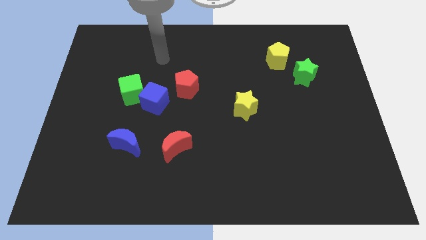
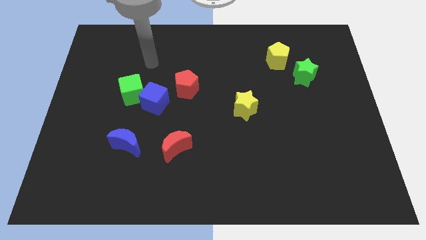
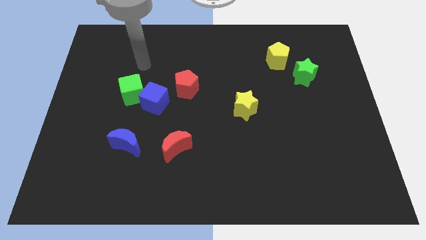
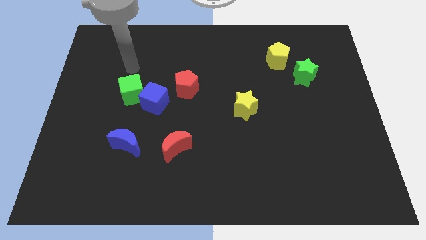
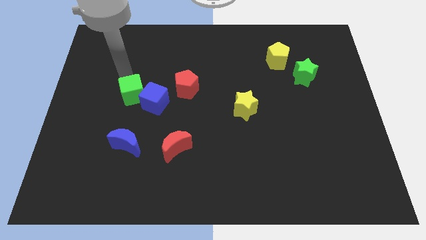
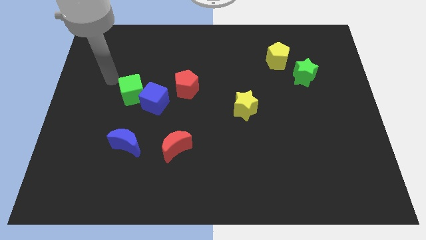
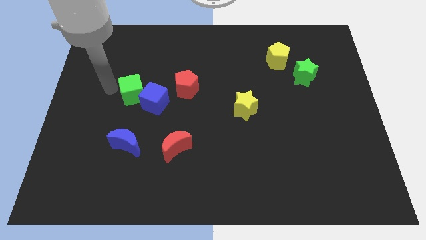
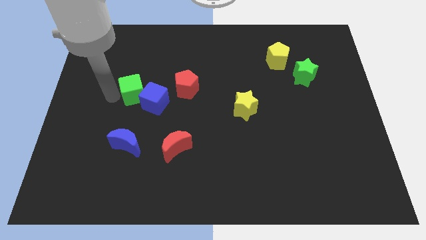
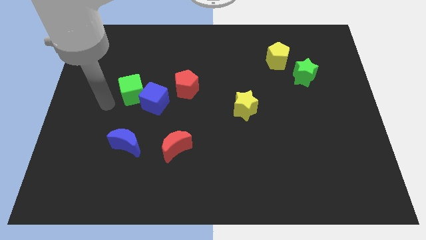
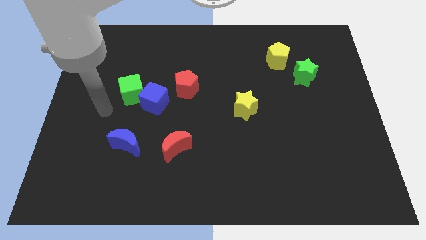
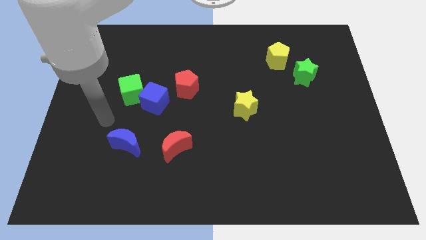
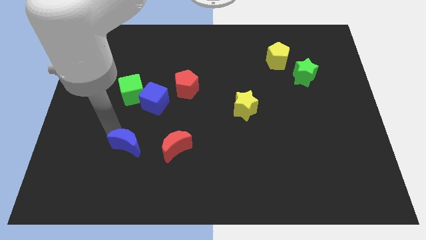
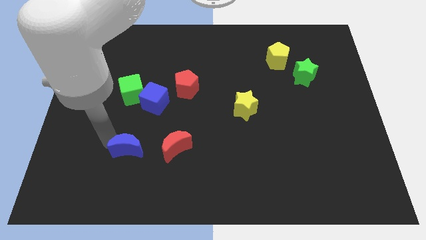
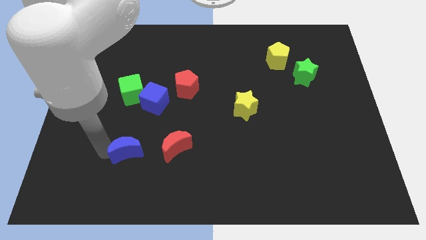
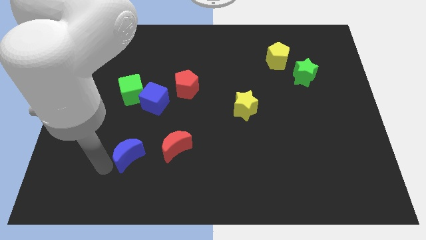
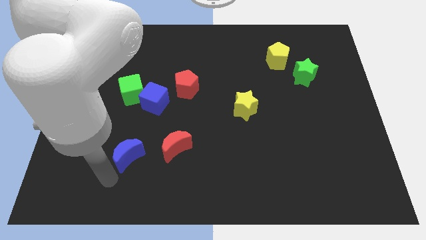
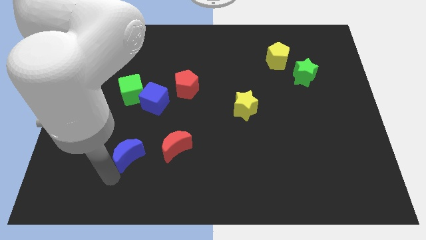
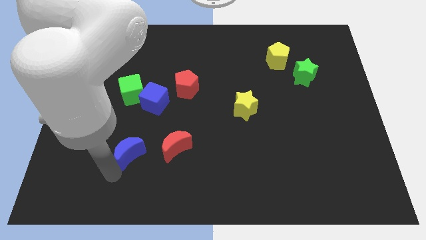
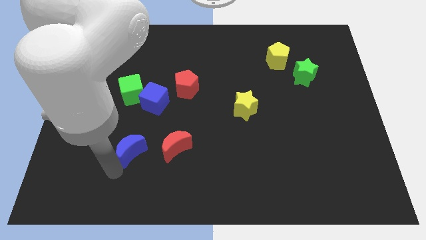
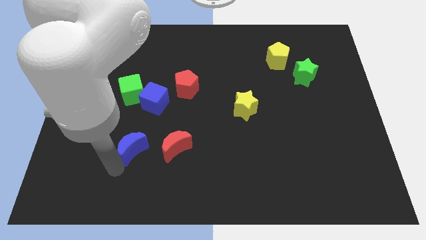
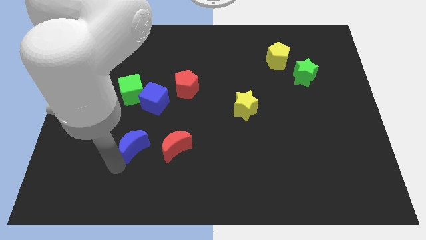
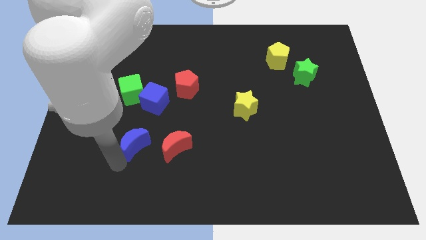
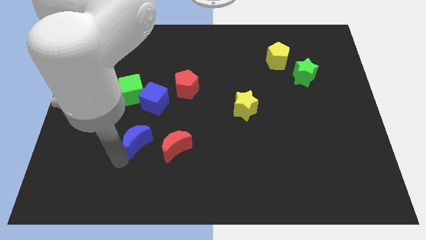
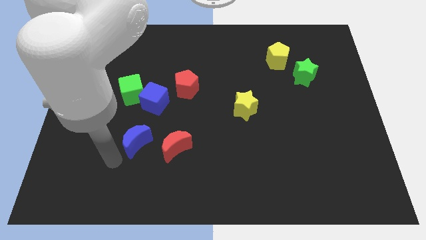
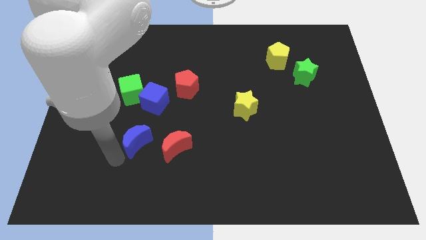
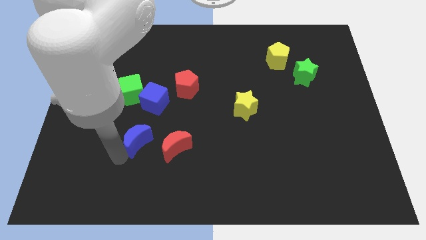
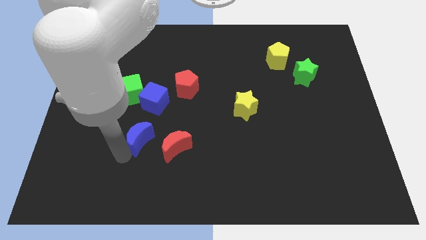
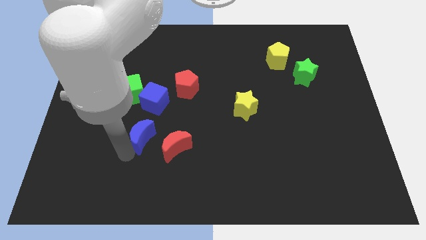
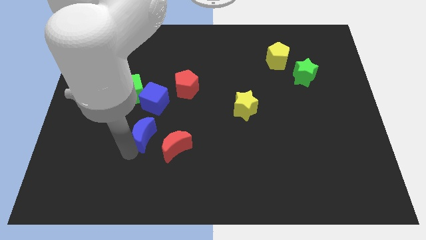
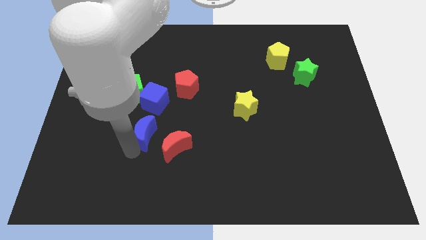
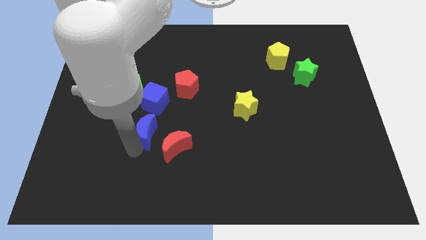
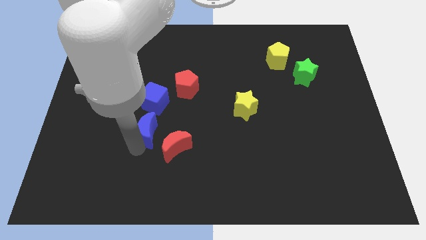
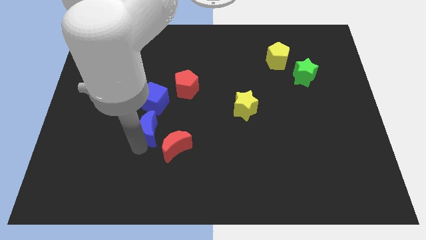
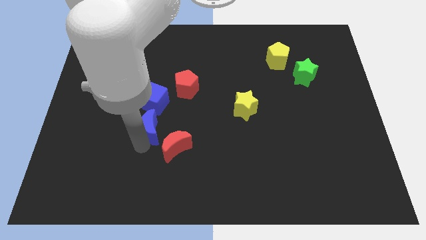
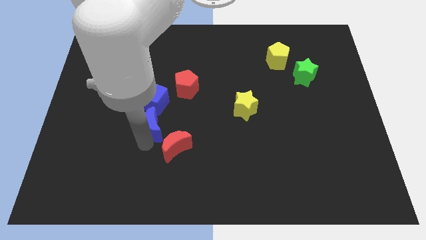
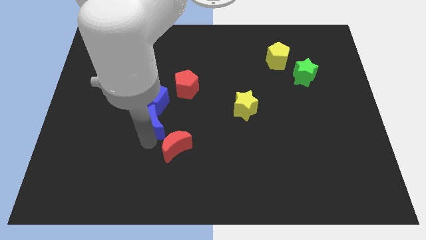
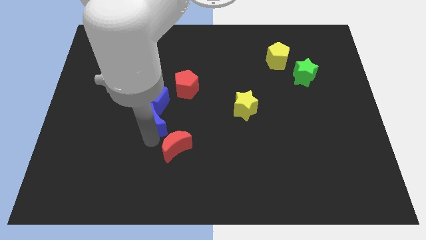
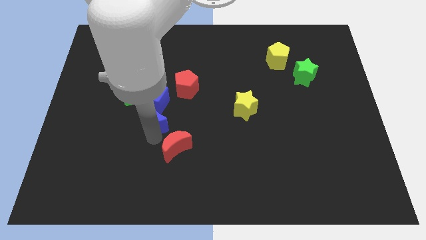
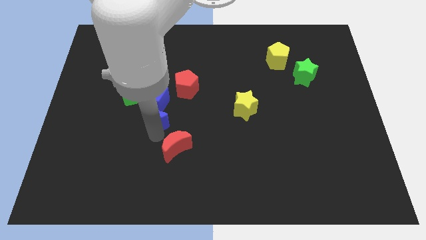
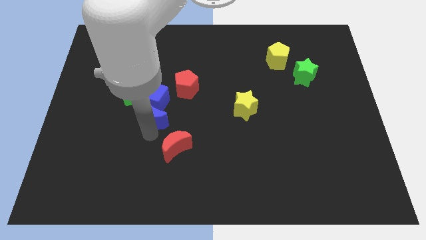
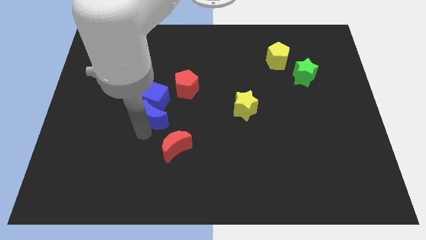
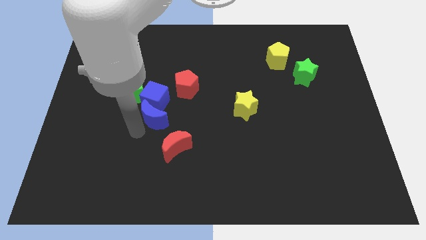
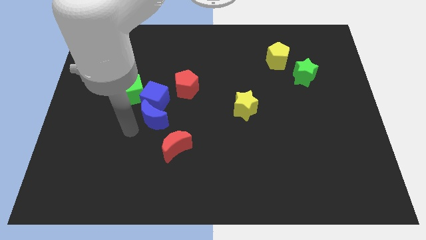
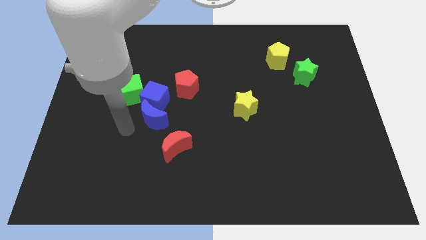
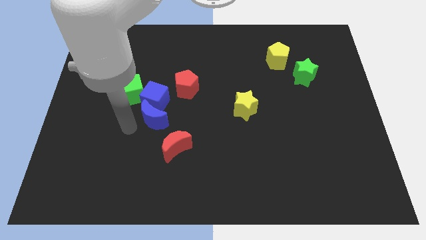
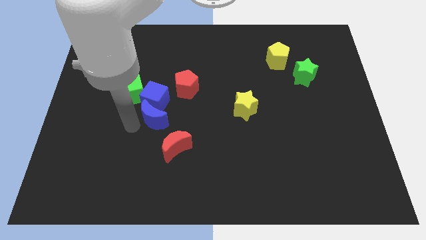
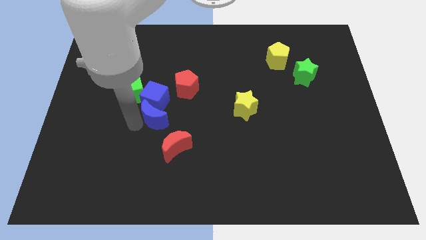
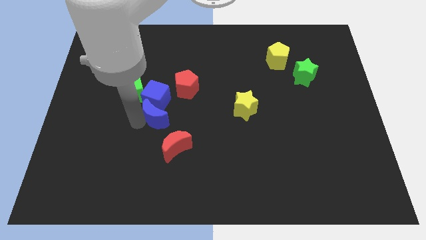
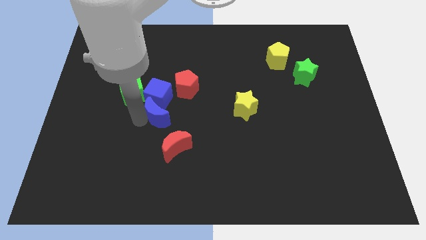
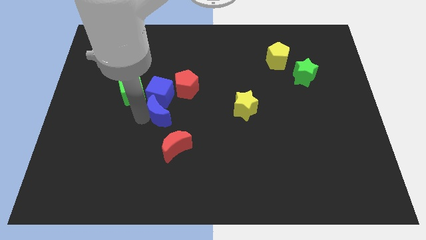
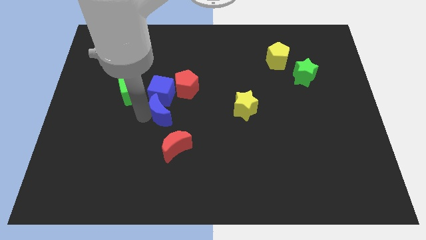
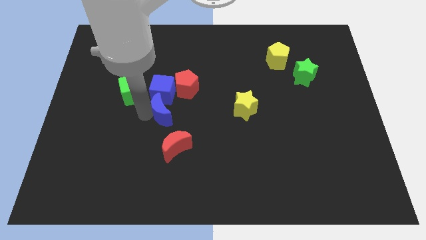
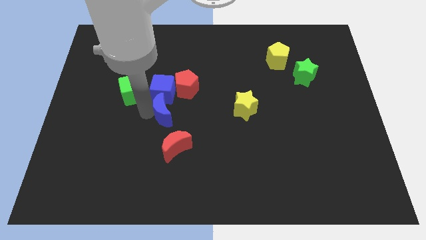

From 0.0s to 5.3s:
move the blue moon to the middle

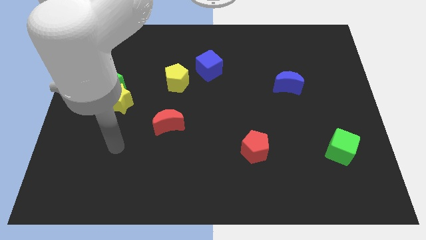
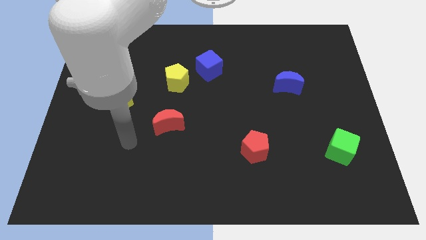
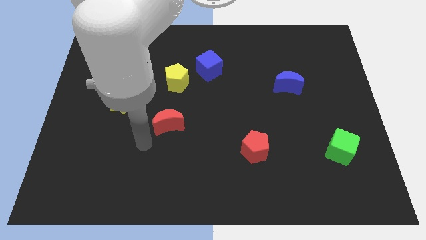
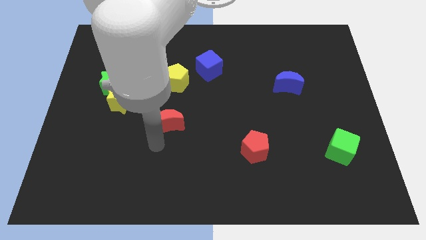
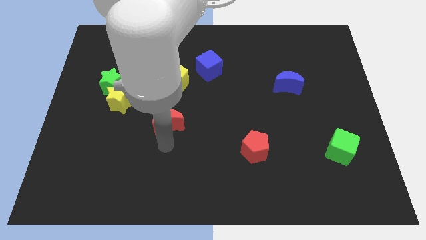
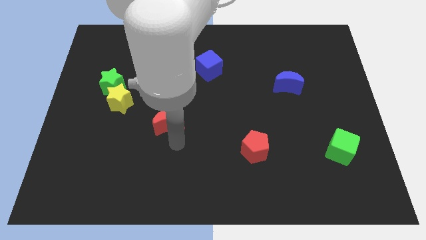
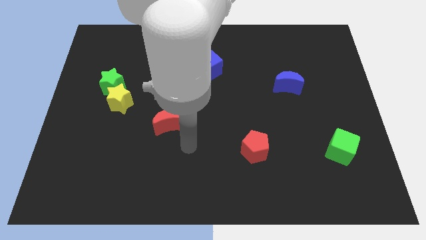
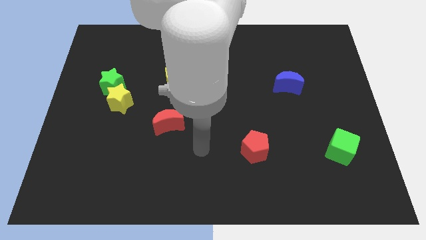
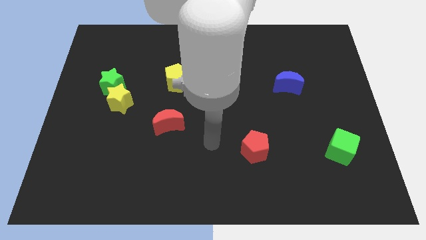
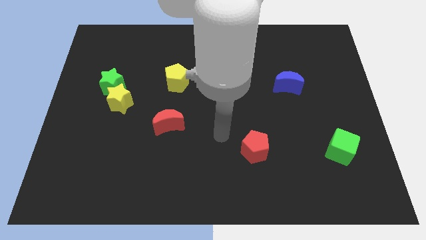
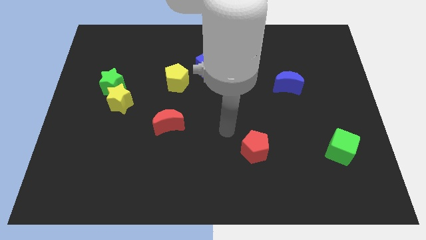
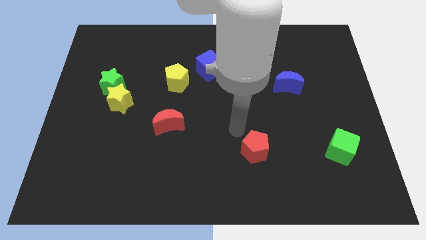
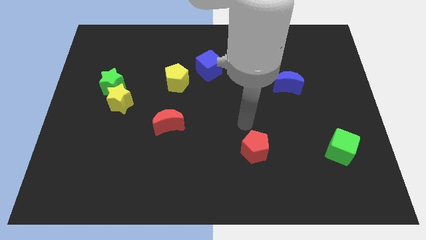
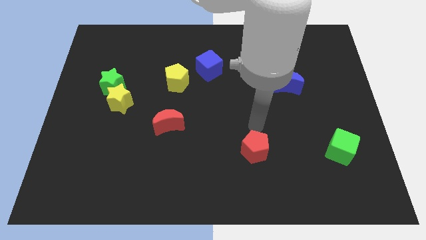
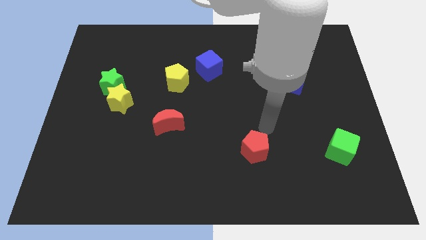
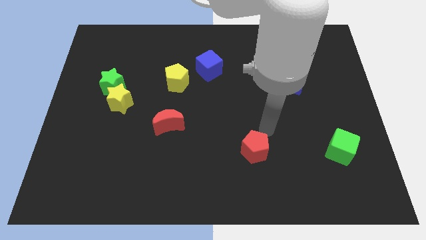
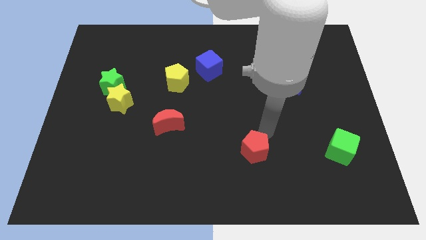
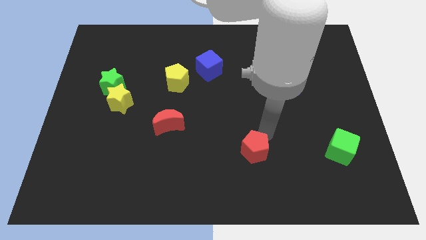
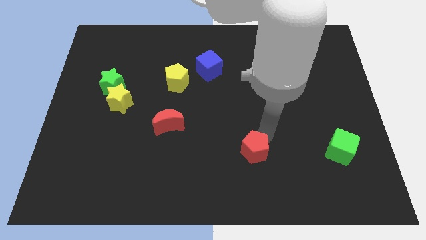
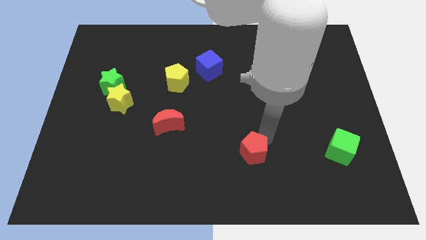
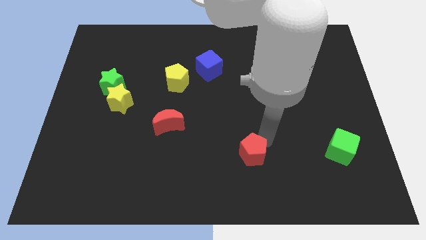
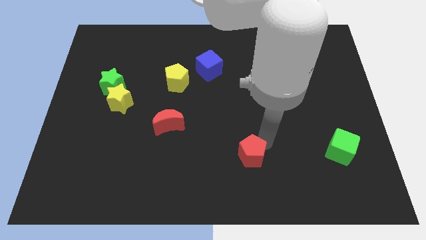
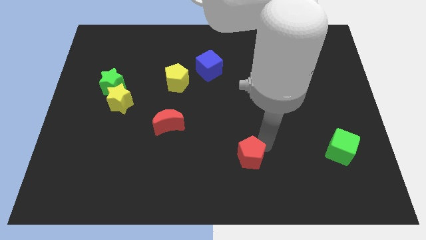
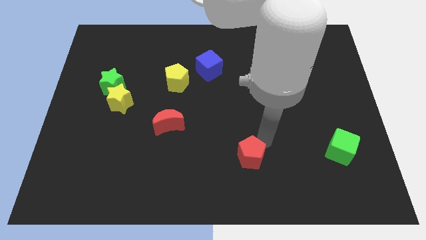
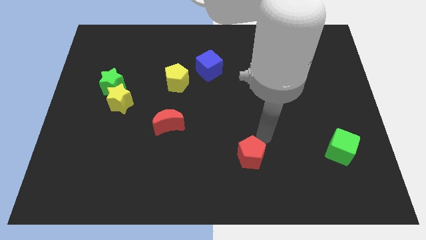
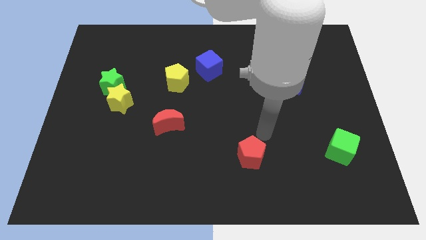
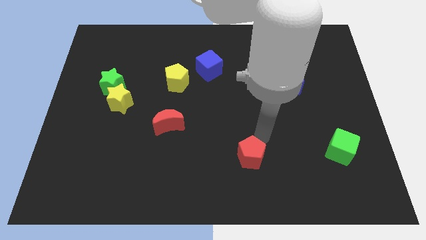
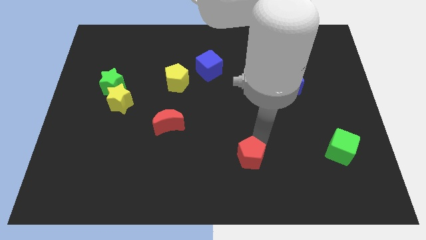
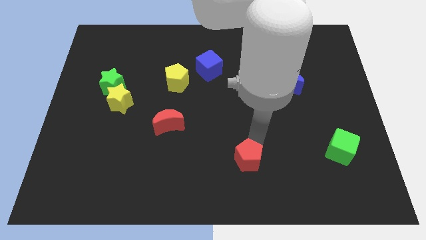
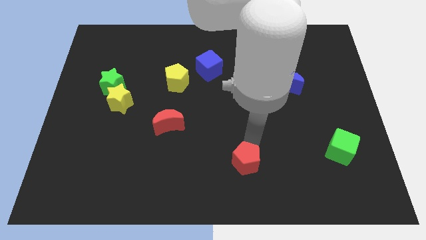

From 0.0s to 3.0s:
push the red pentagon to the bottom
